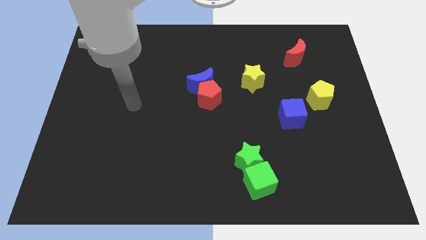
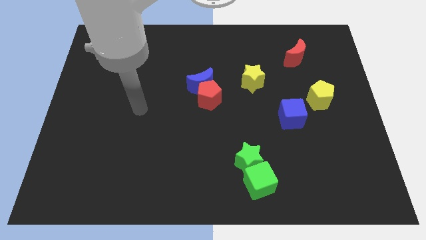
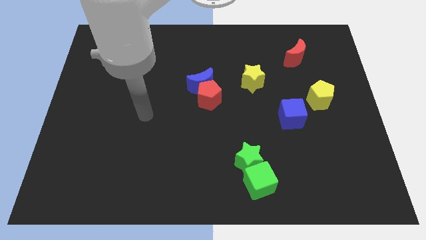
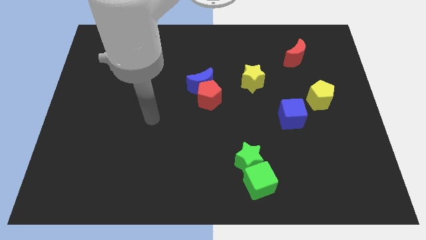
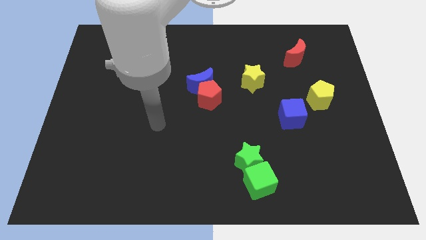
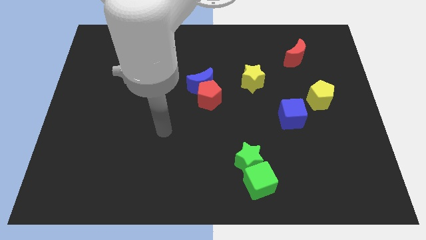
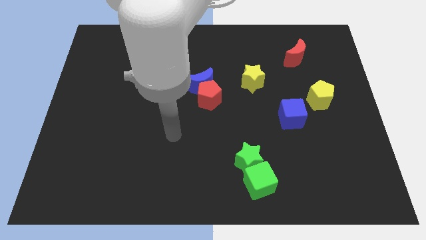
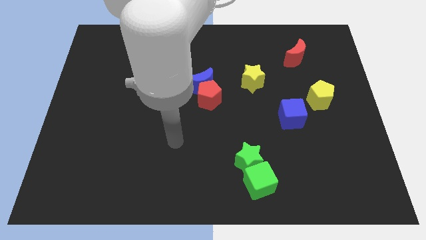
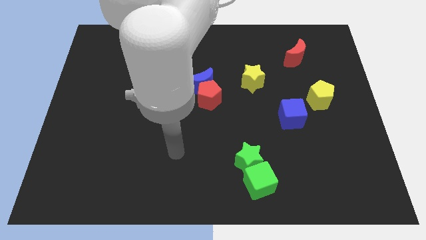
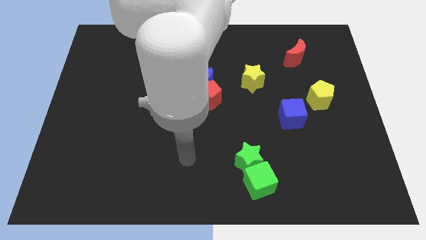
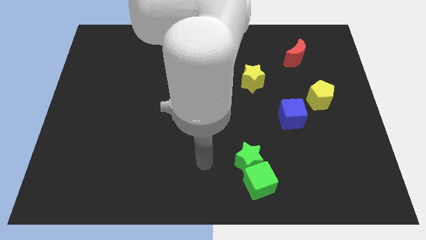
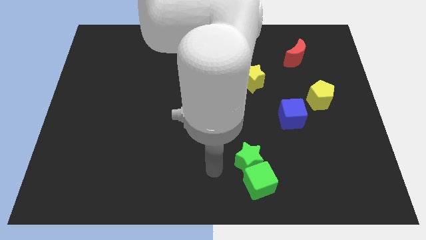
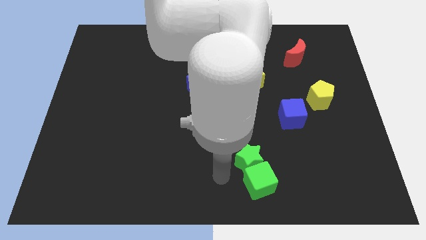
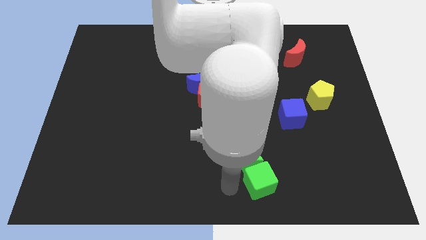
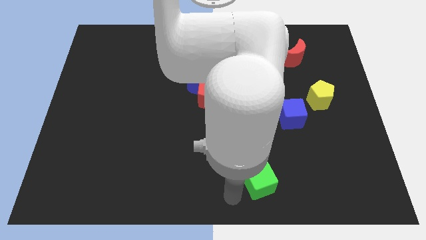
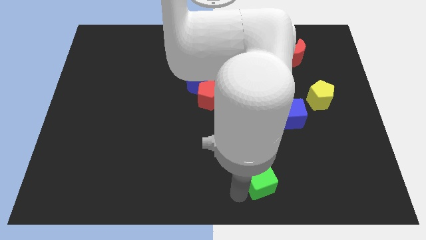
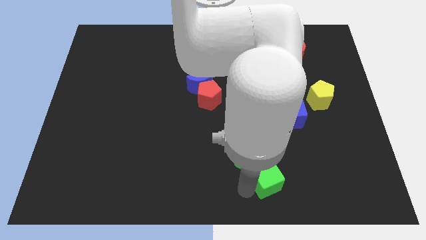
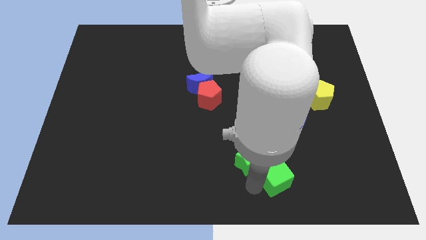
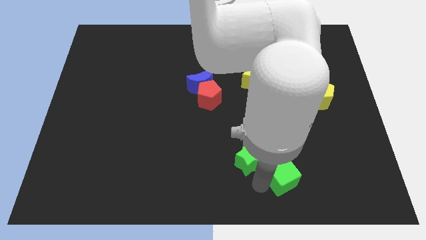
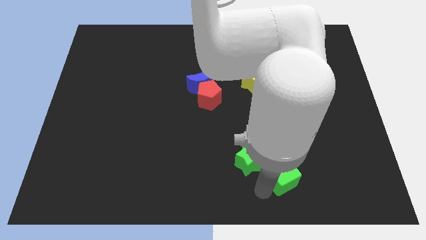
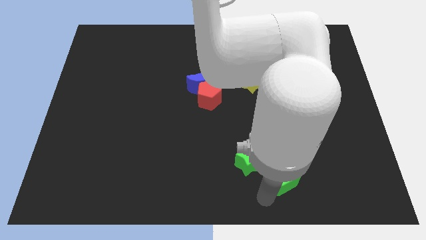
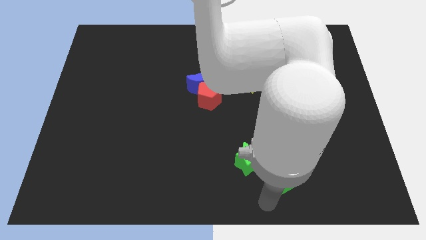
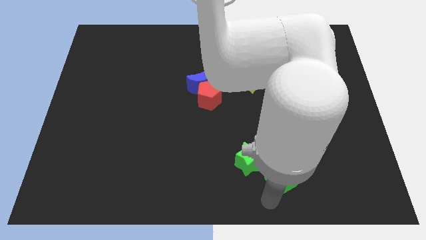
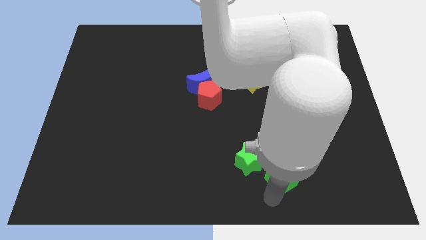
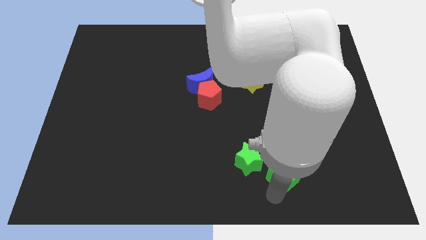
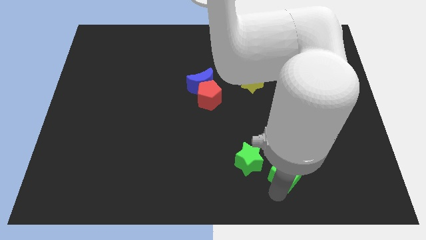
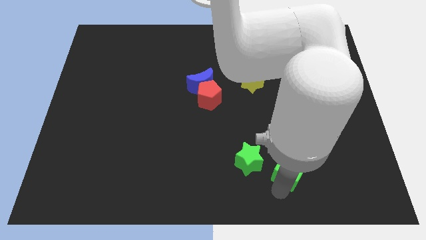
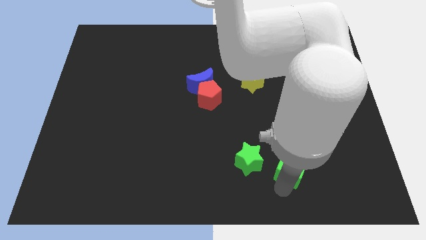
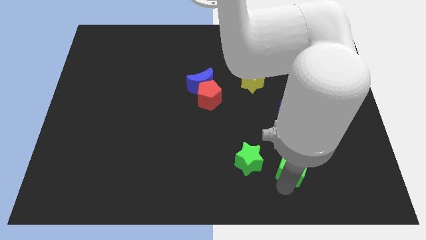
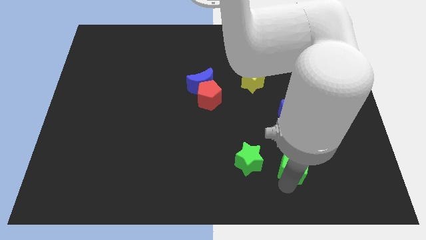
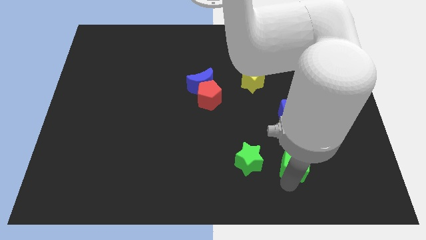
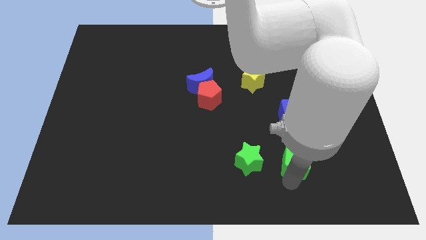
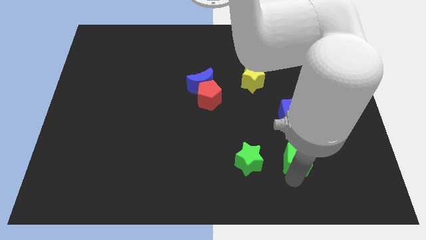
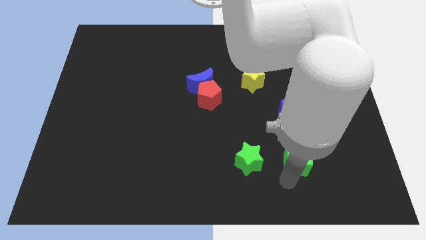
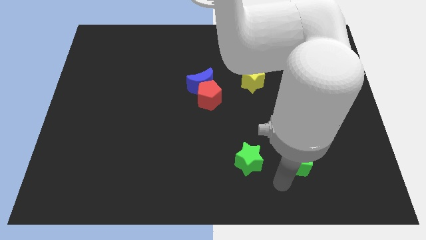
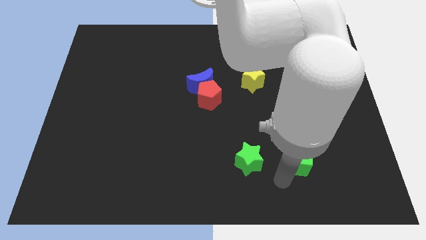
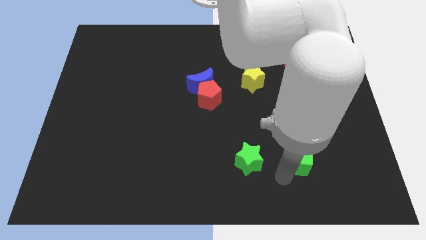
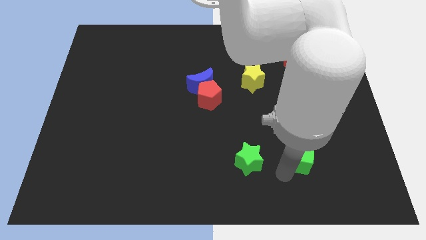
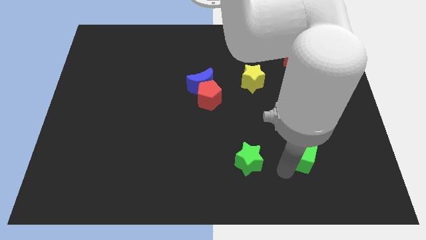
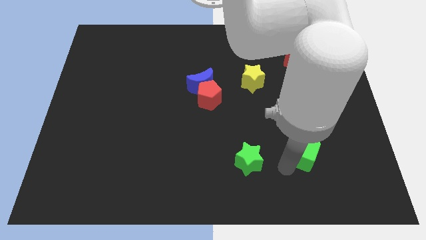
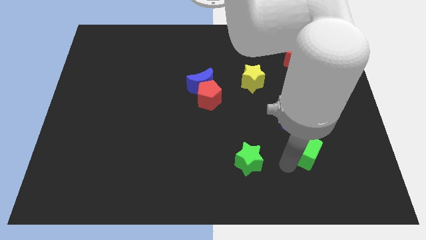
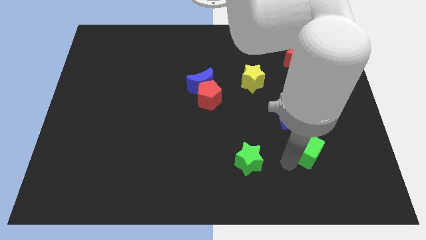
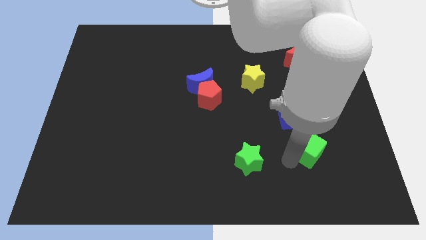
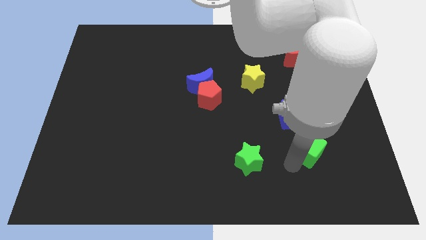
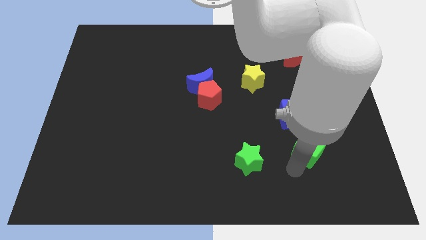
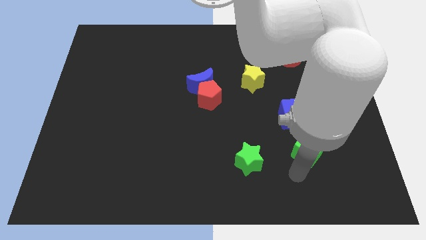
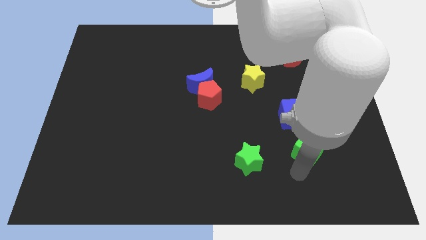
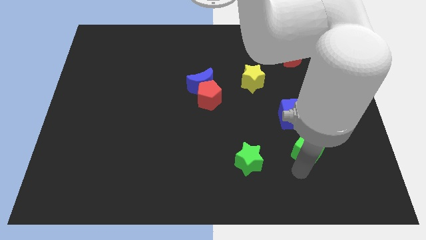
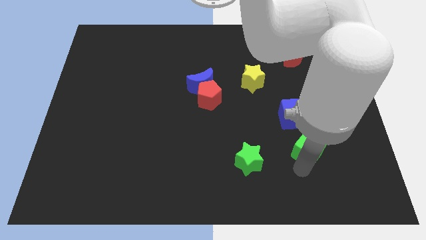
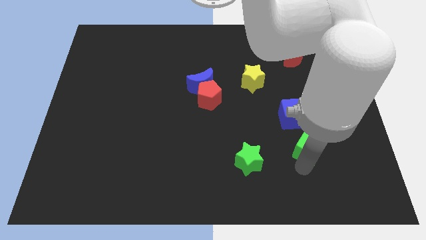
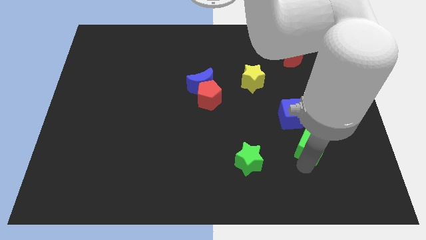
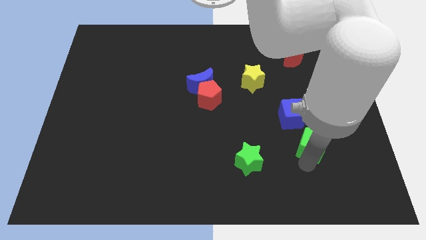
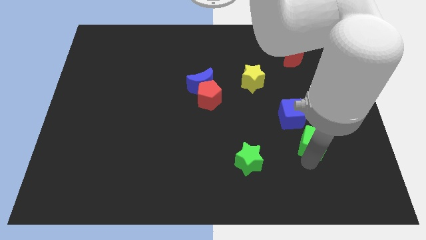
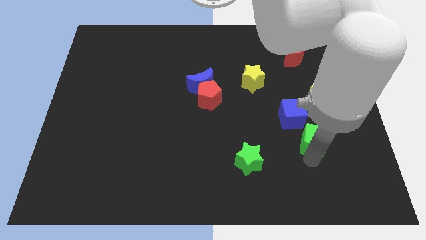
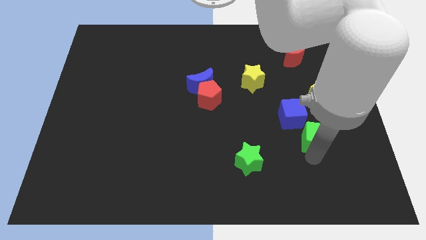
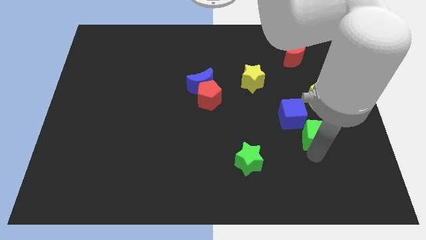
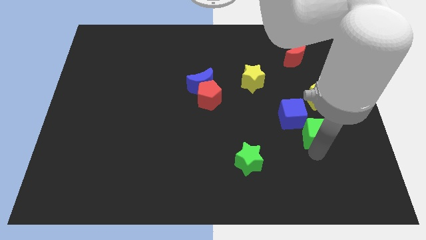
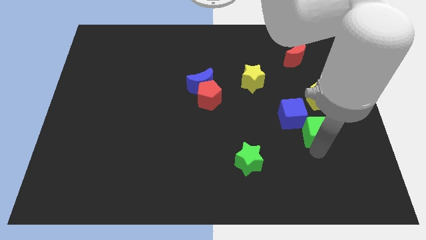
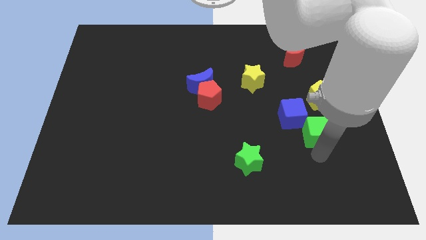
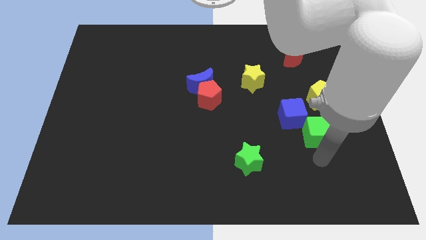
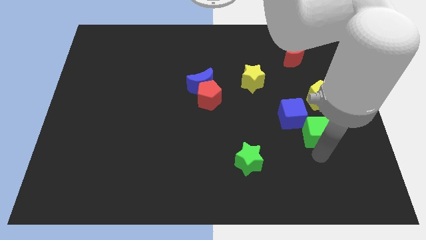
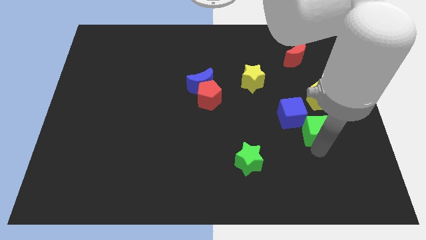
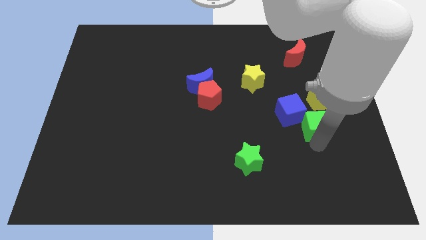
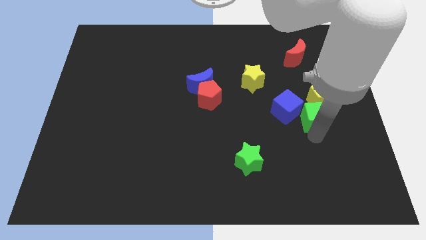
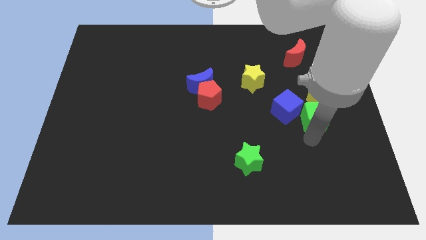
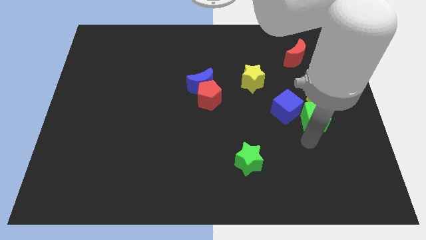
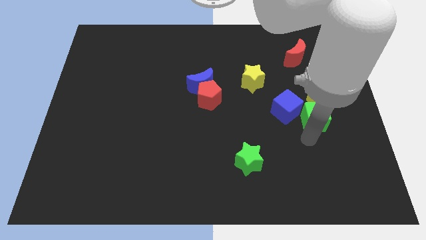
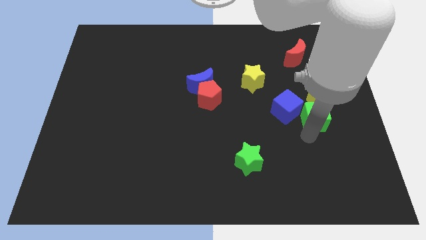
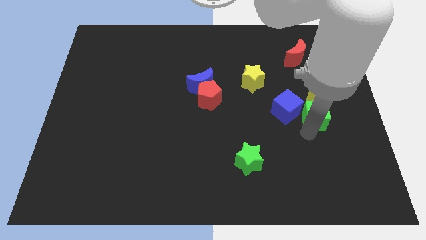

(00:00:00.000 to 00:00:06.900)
put the green cube towards the yellow pentagon

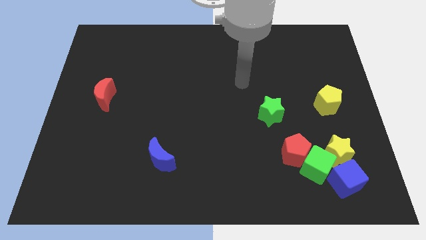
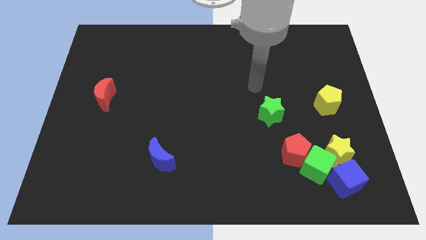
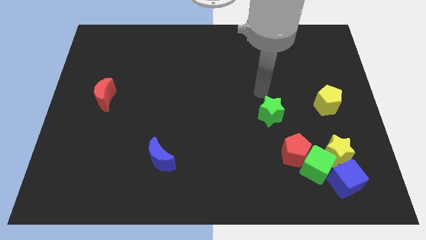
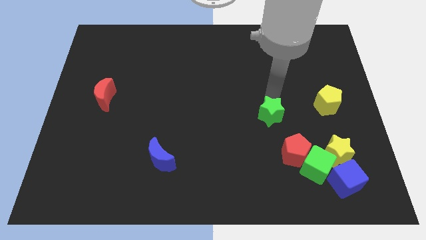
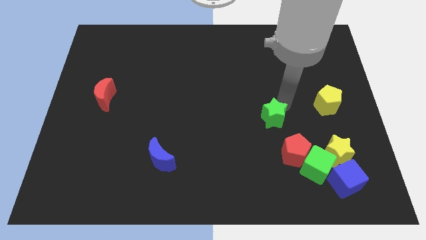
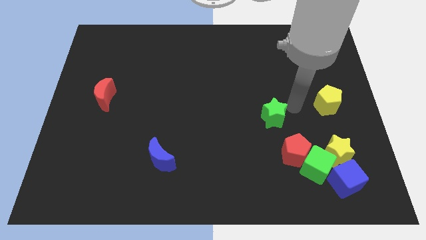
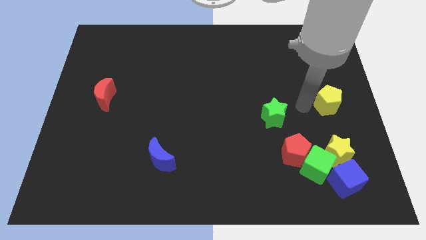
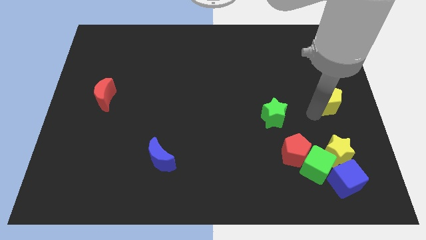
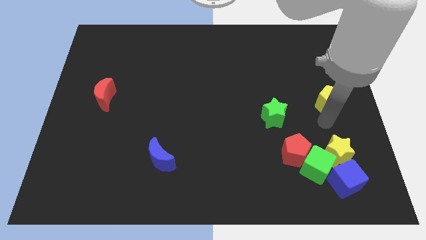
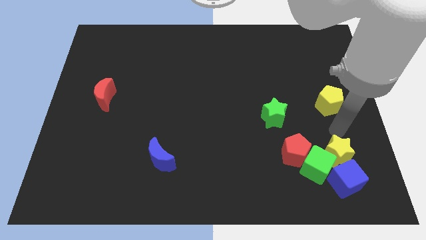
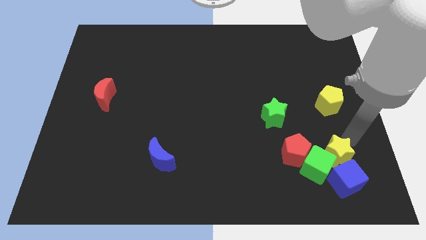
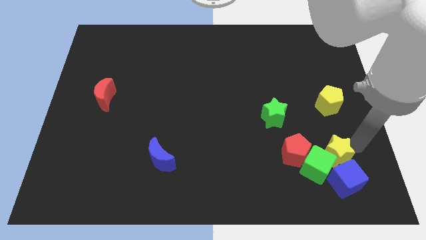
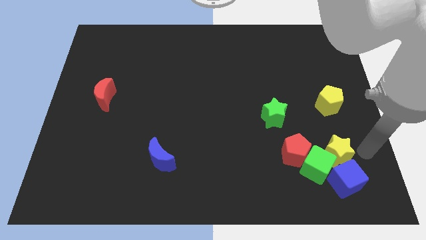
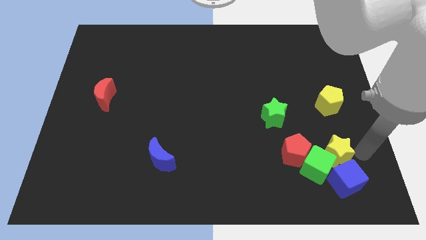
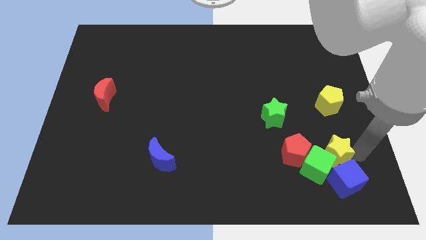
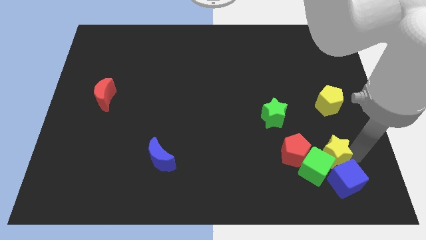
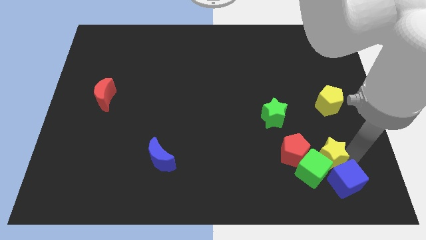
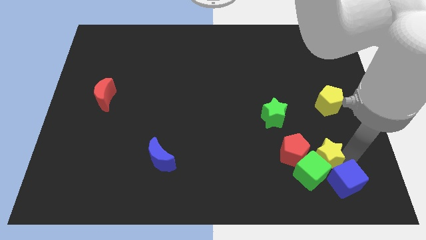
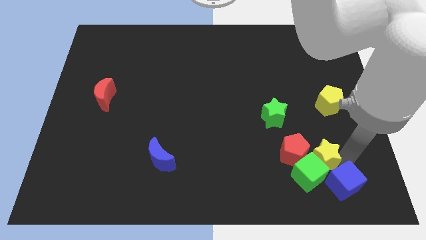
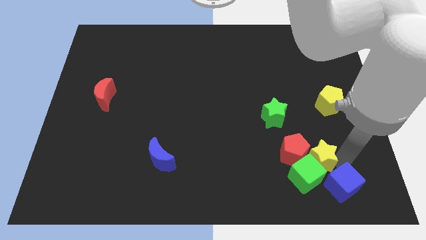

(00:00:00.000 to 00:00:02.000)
slide the yellow star to the red pentagon
